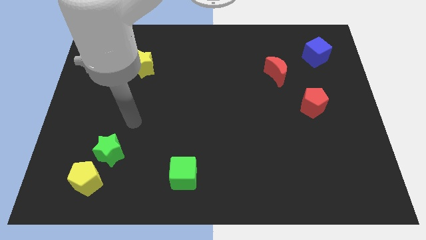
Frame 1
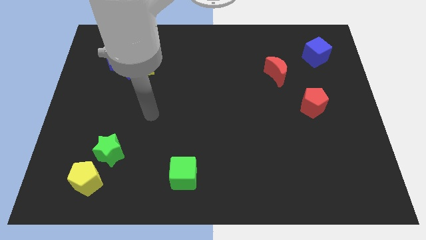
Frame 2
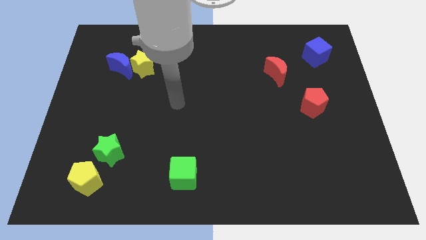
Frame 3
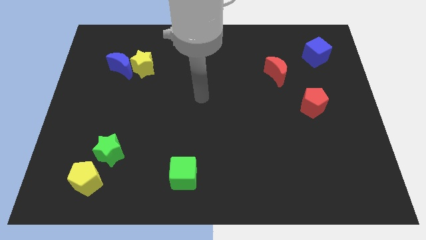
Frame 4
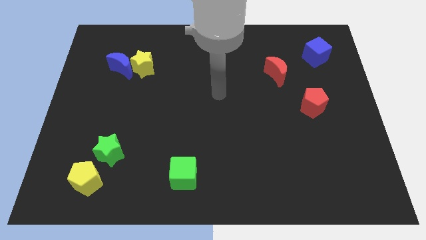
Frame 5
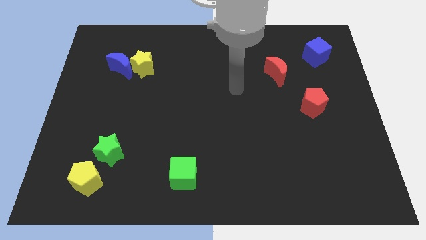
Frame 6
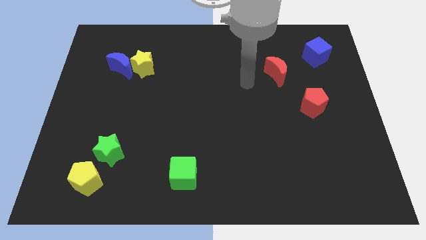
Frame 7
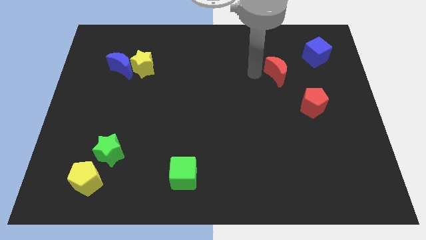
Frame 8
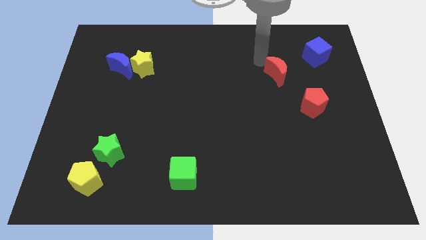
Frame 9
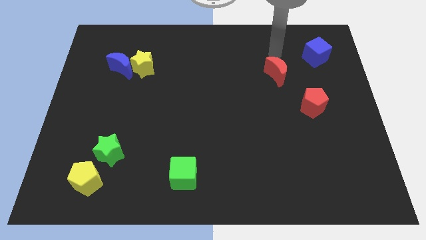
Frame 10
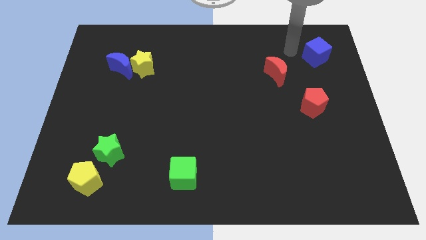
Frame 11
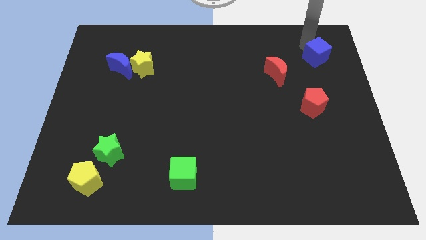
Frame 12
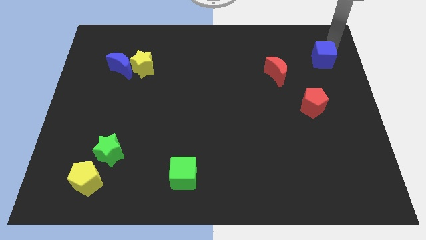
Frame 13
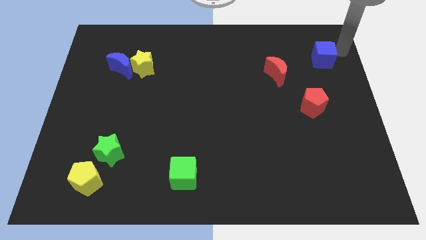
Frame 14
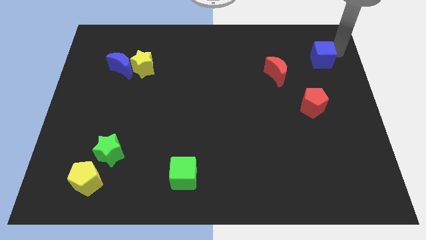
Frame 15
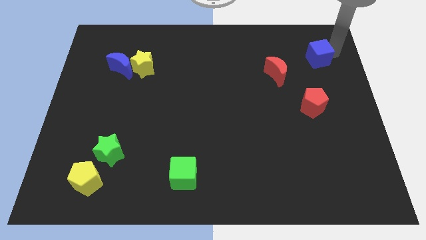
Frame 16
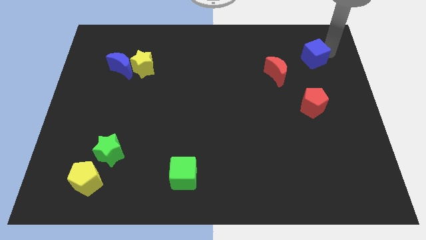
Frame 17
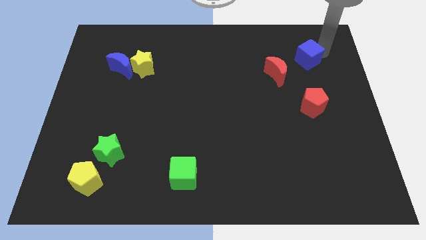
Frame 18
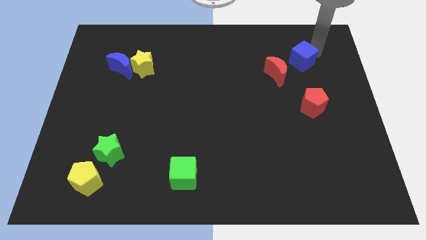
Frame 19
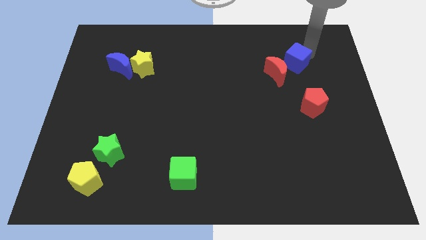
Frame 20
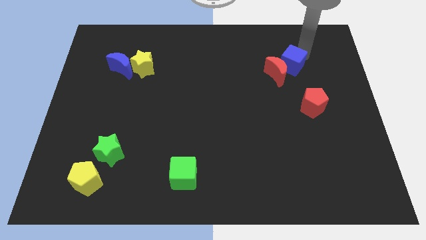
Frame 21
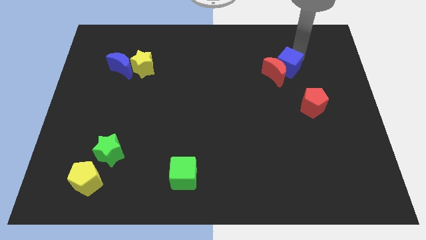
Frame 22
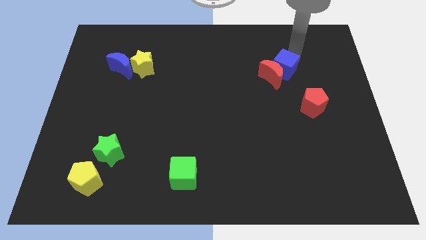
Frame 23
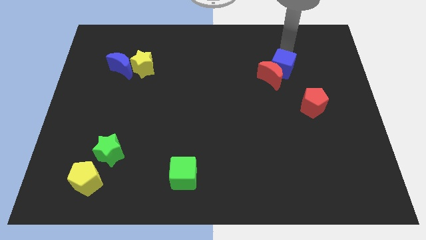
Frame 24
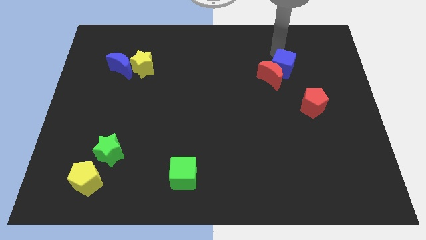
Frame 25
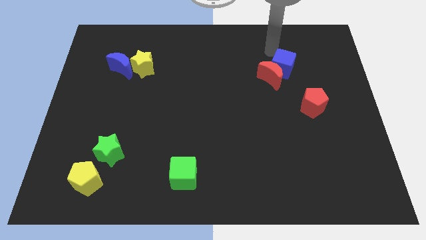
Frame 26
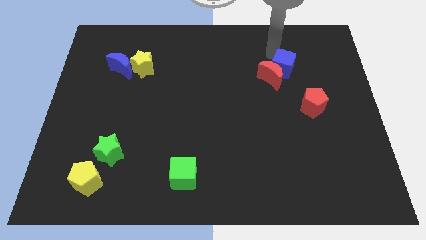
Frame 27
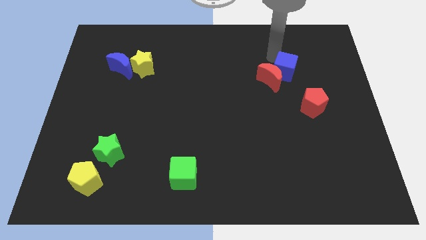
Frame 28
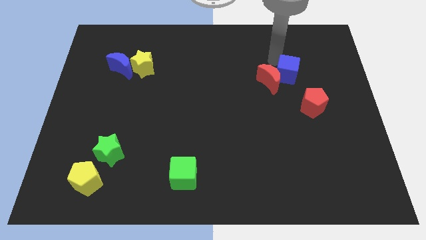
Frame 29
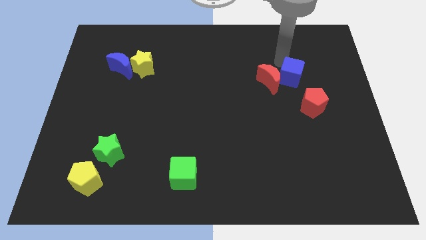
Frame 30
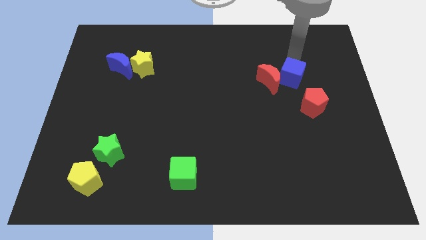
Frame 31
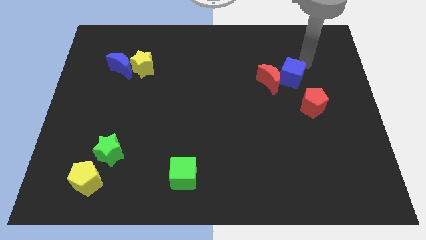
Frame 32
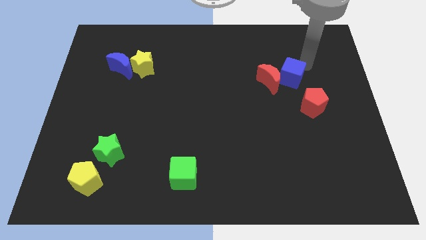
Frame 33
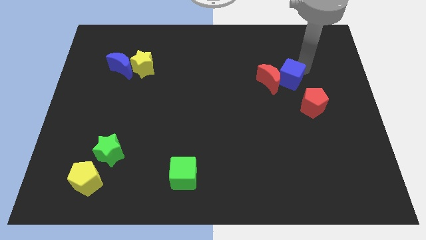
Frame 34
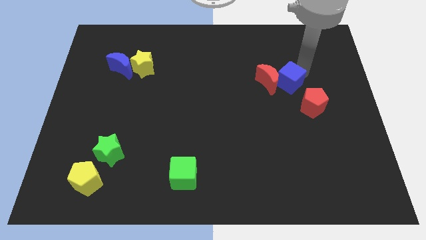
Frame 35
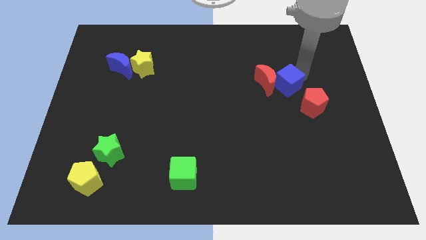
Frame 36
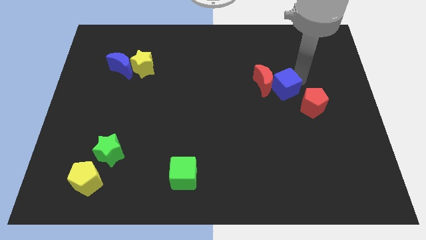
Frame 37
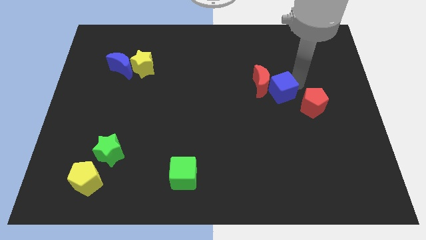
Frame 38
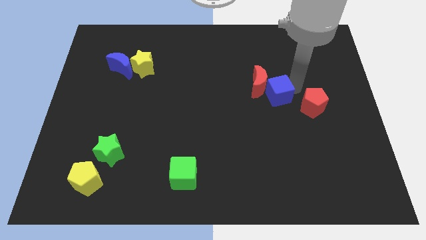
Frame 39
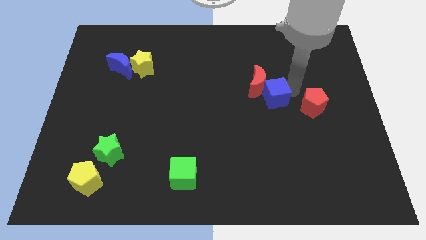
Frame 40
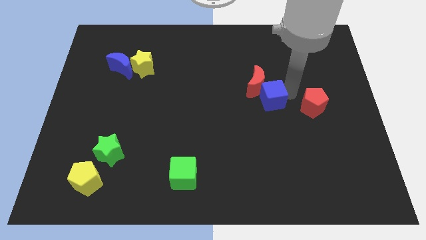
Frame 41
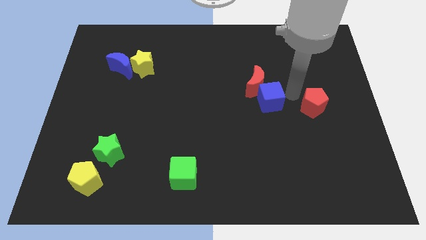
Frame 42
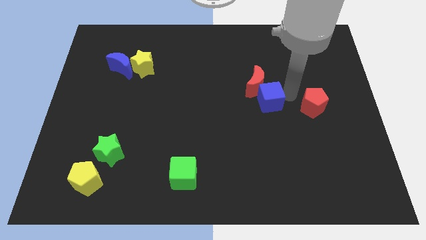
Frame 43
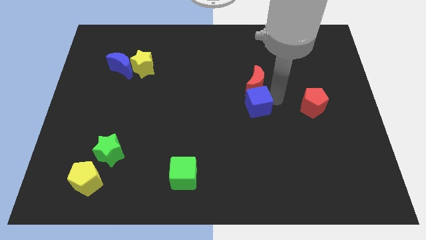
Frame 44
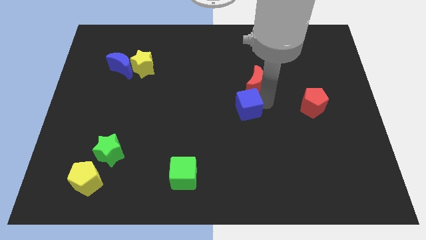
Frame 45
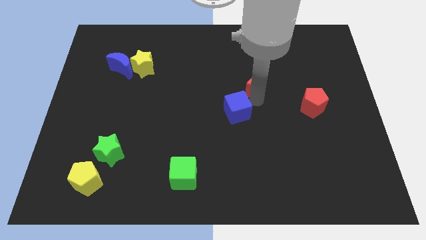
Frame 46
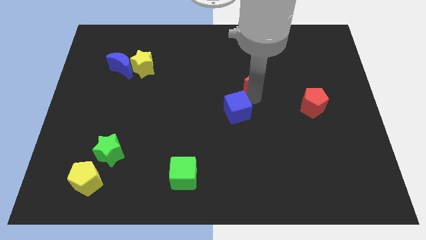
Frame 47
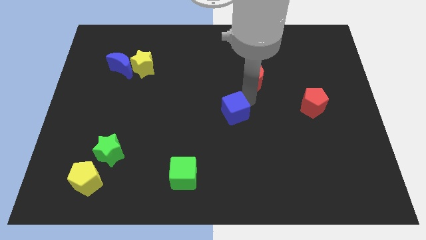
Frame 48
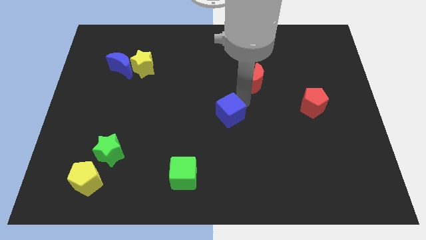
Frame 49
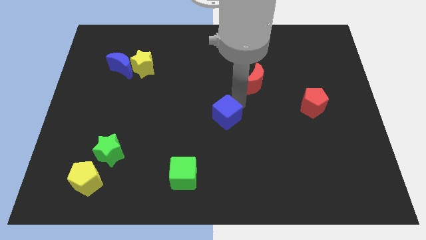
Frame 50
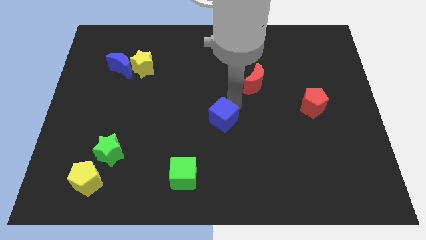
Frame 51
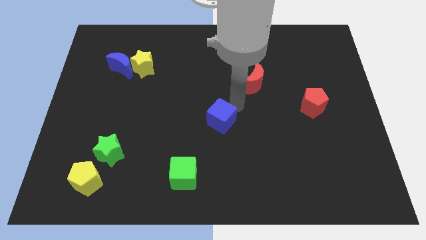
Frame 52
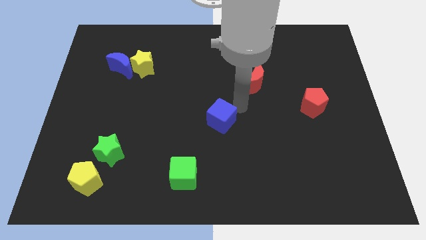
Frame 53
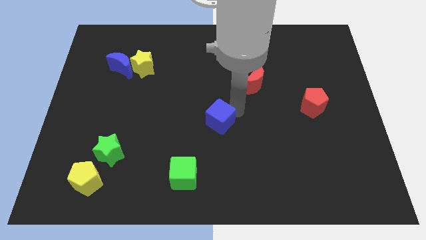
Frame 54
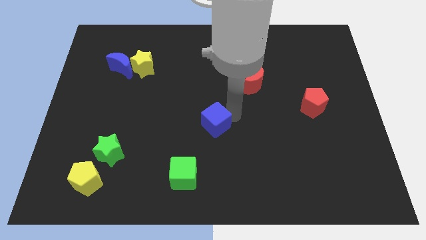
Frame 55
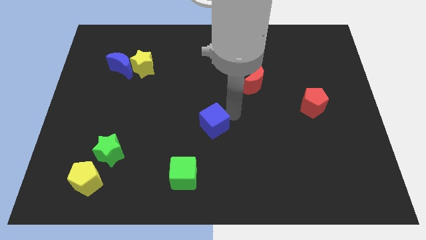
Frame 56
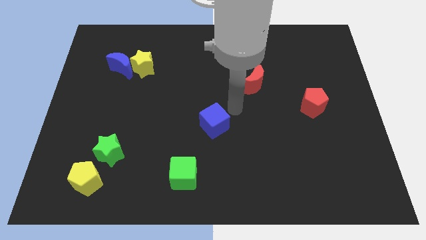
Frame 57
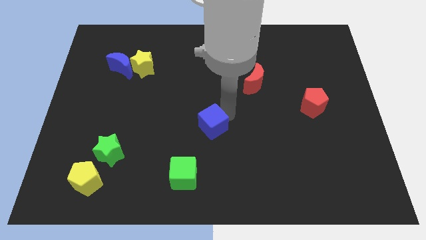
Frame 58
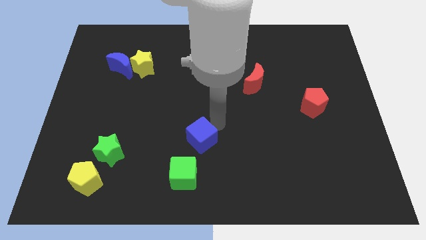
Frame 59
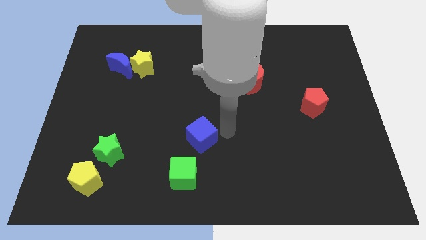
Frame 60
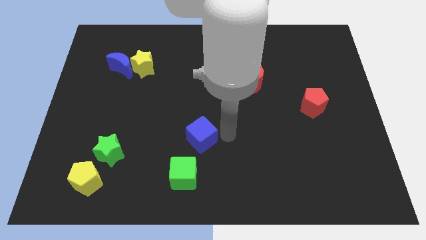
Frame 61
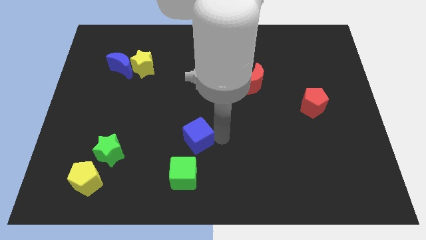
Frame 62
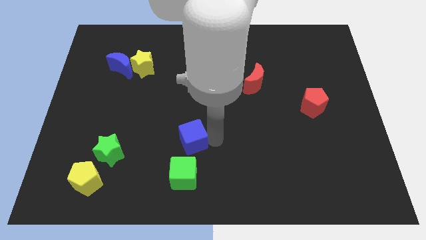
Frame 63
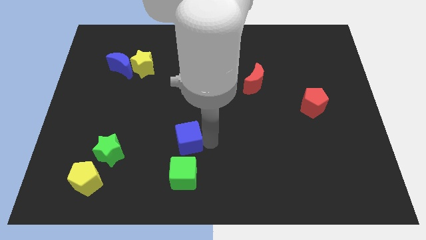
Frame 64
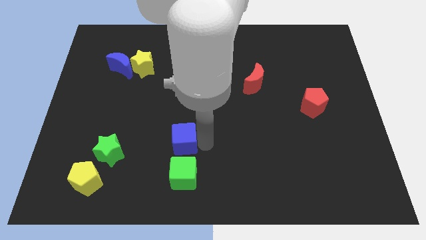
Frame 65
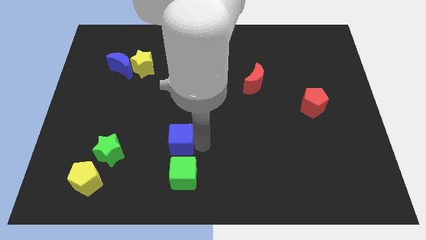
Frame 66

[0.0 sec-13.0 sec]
push the blue cube just right of the green star
